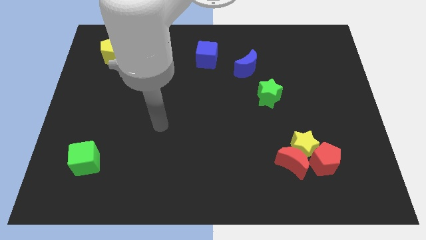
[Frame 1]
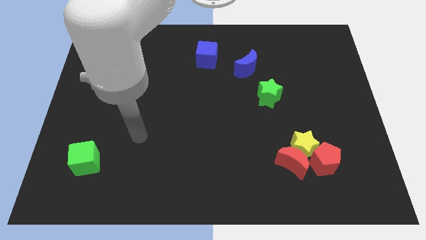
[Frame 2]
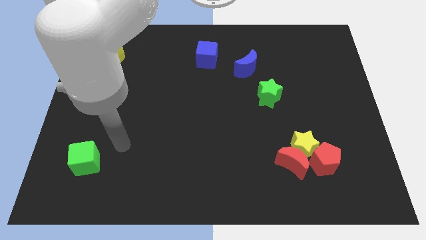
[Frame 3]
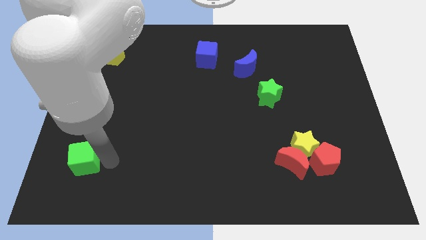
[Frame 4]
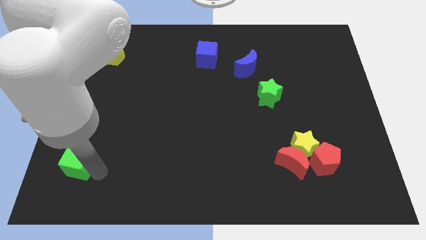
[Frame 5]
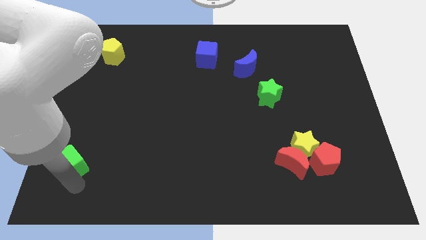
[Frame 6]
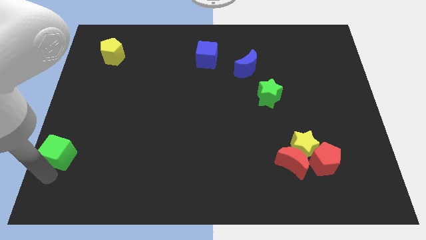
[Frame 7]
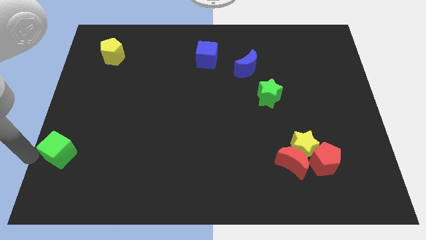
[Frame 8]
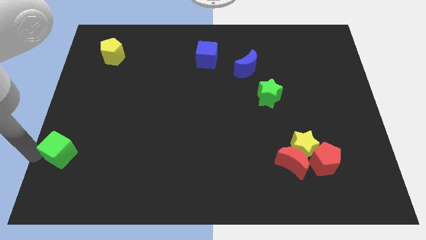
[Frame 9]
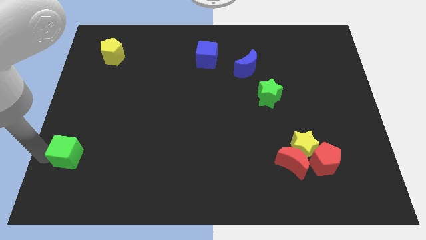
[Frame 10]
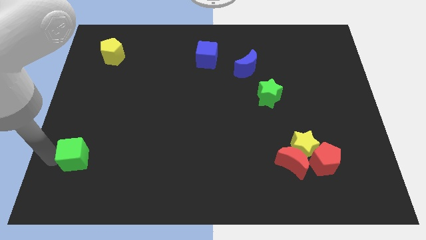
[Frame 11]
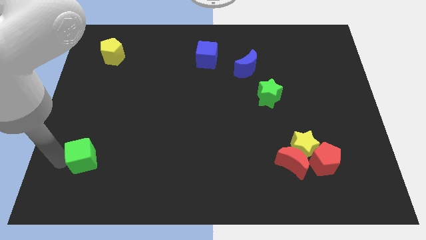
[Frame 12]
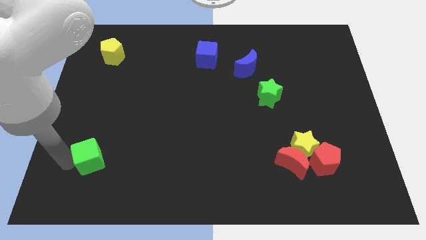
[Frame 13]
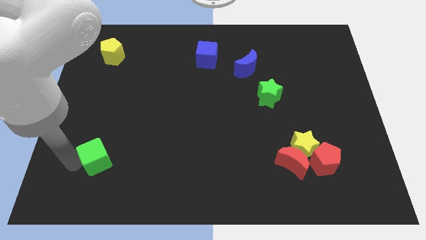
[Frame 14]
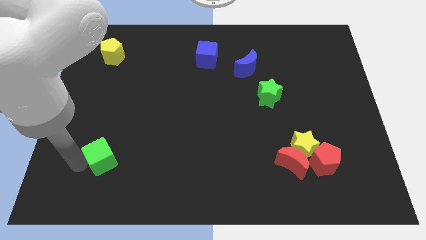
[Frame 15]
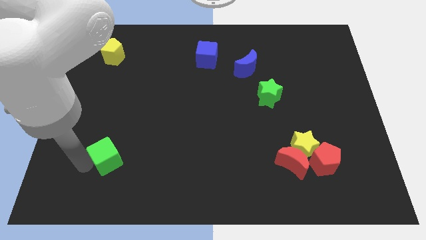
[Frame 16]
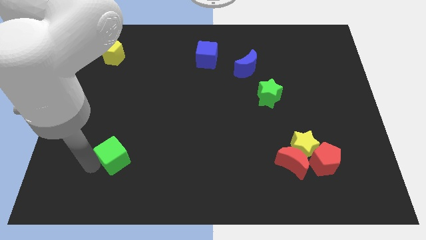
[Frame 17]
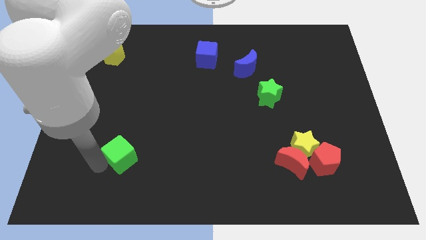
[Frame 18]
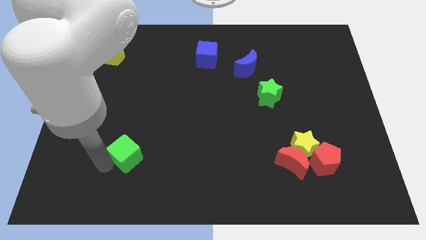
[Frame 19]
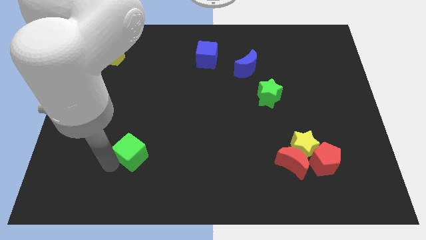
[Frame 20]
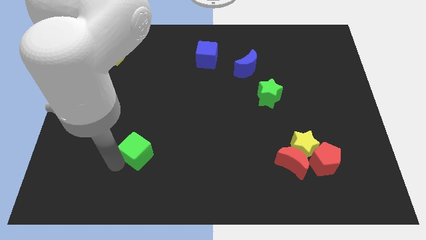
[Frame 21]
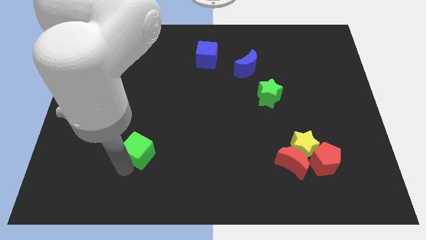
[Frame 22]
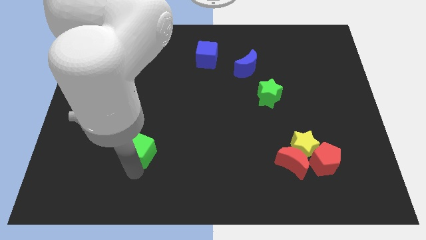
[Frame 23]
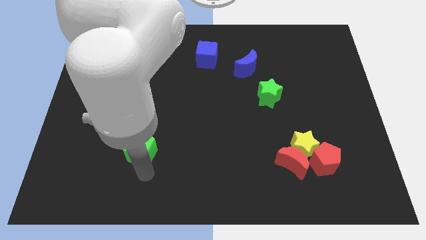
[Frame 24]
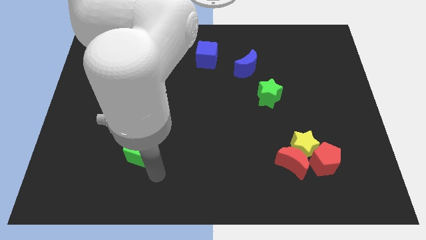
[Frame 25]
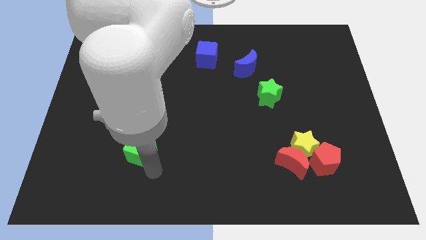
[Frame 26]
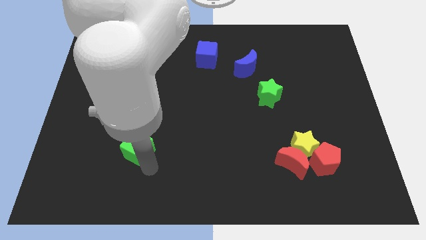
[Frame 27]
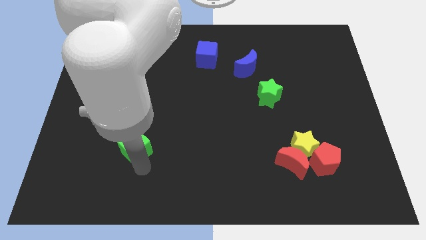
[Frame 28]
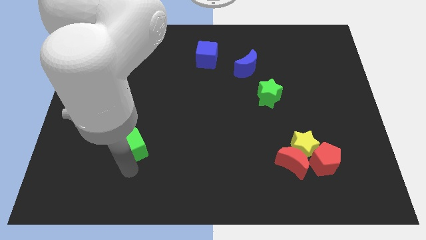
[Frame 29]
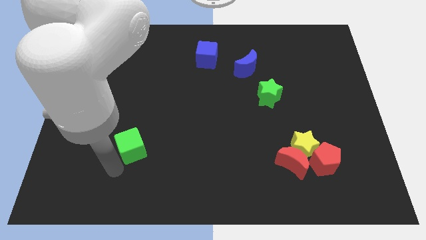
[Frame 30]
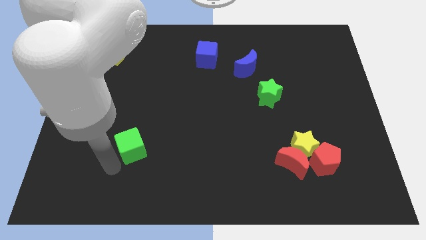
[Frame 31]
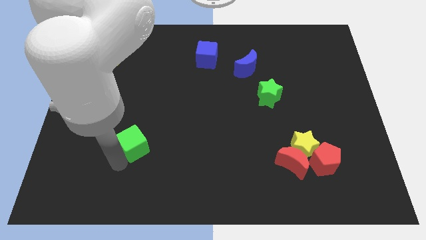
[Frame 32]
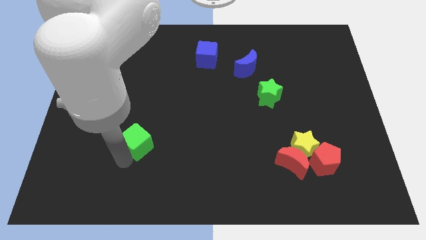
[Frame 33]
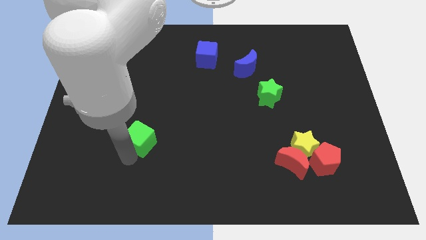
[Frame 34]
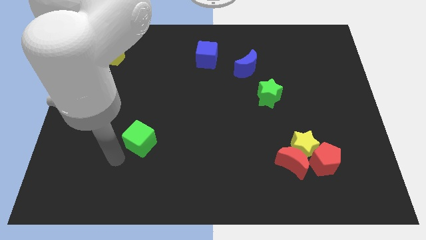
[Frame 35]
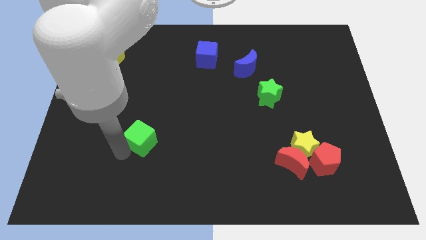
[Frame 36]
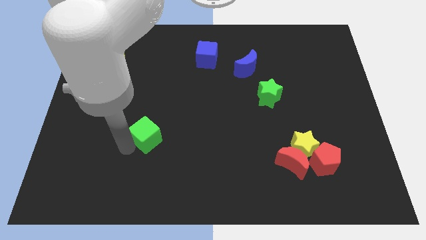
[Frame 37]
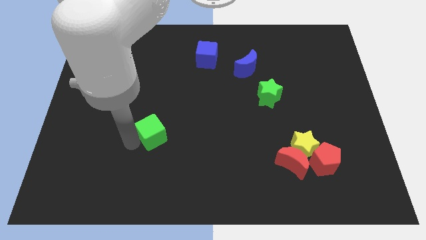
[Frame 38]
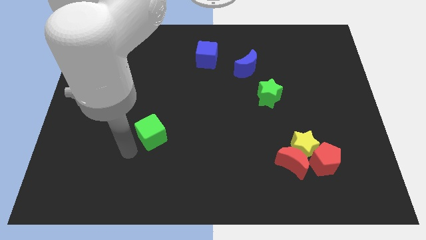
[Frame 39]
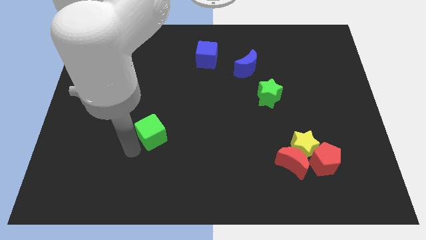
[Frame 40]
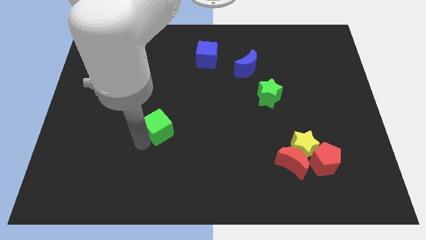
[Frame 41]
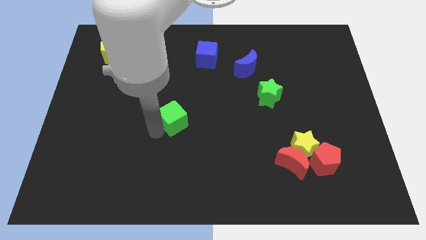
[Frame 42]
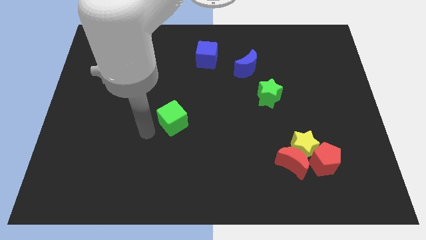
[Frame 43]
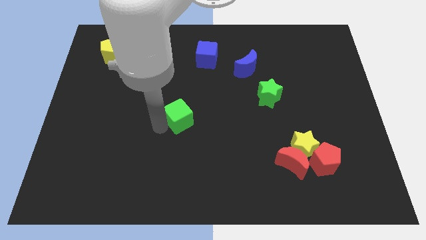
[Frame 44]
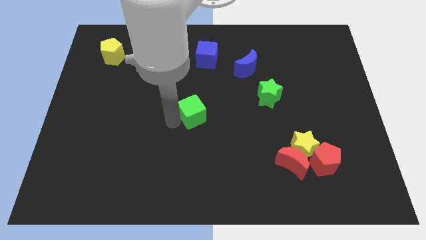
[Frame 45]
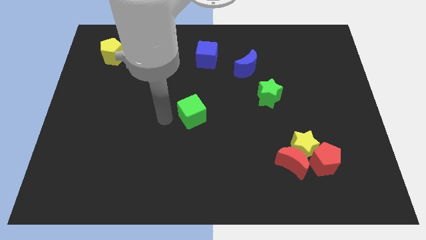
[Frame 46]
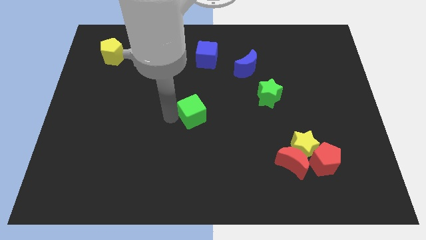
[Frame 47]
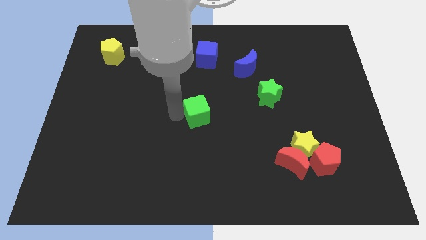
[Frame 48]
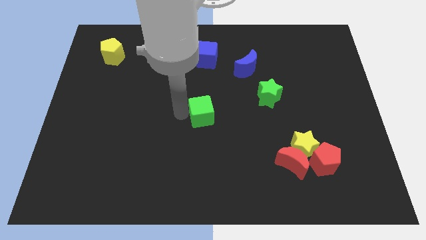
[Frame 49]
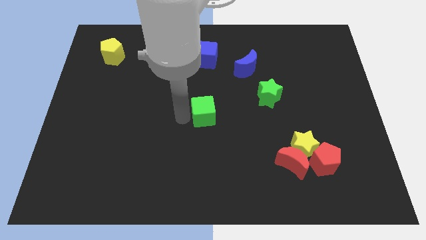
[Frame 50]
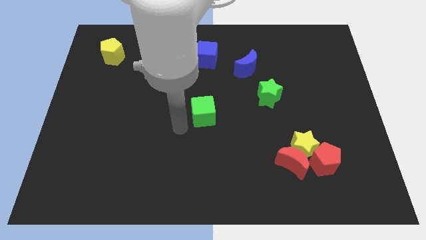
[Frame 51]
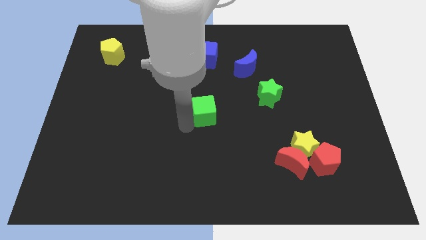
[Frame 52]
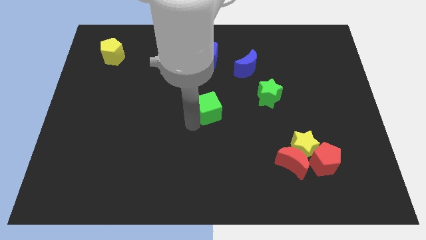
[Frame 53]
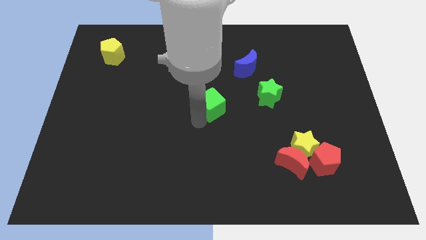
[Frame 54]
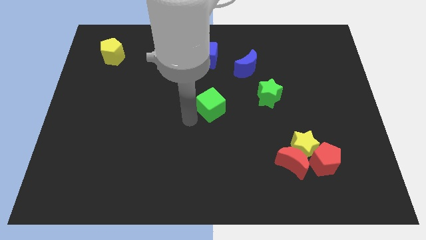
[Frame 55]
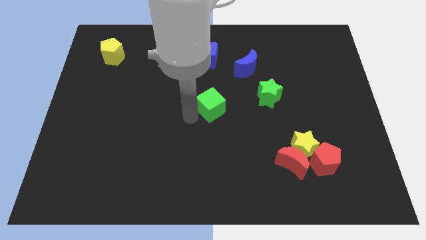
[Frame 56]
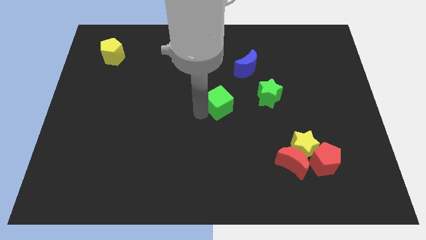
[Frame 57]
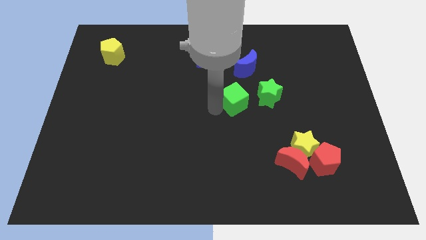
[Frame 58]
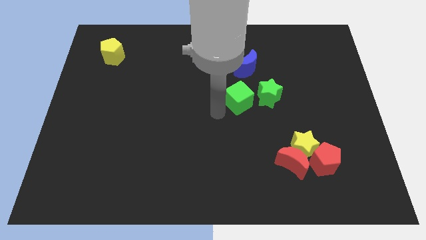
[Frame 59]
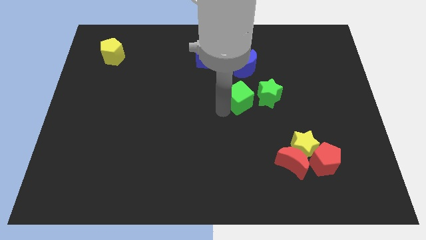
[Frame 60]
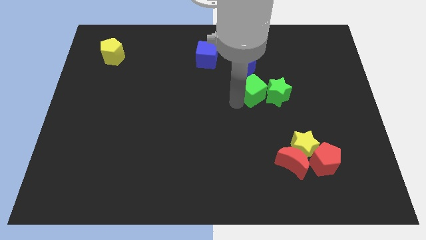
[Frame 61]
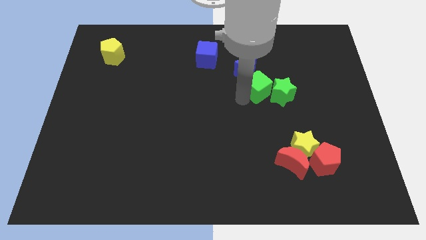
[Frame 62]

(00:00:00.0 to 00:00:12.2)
push the green cube to the bottom right side of the blue moon
